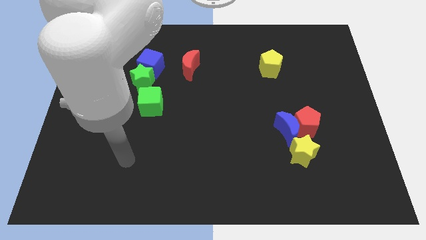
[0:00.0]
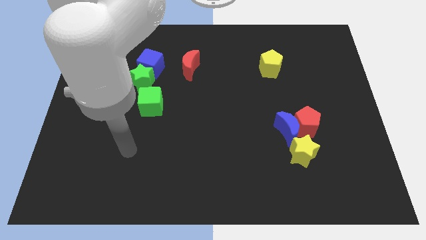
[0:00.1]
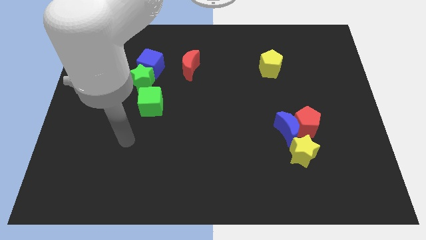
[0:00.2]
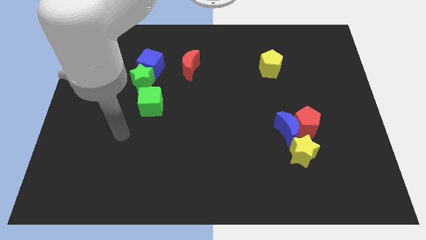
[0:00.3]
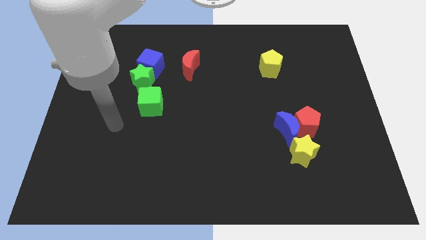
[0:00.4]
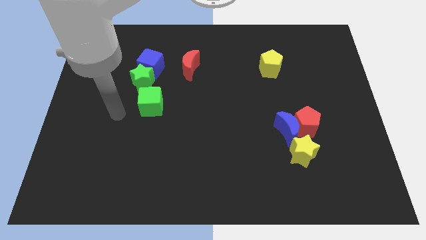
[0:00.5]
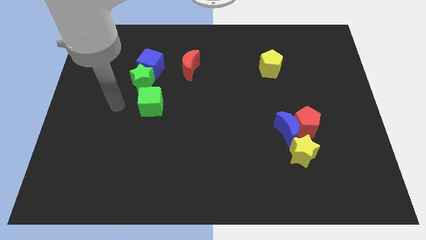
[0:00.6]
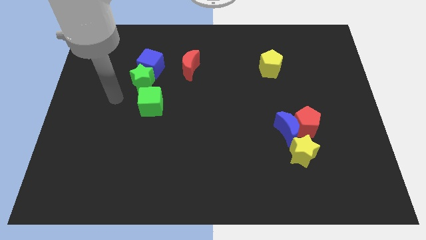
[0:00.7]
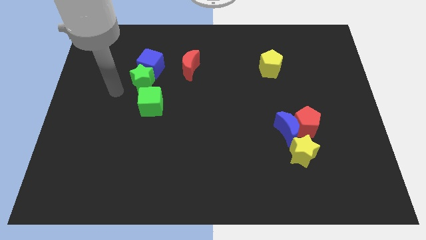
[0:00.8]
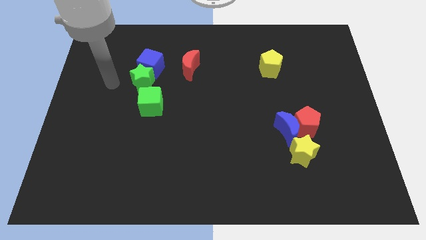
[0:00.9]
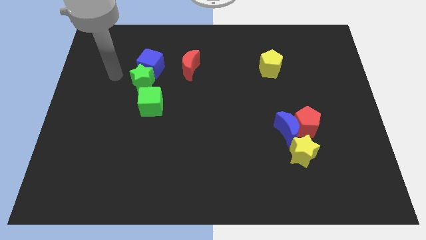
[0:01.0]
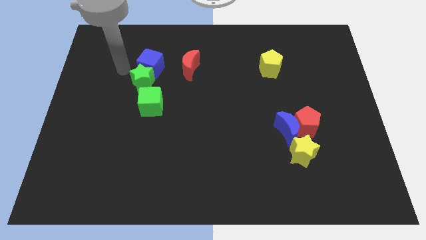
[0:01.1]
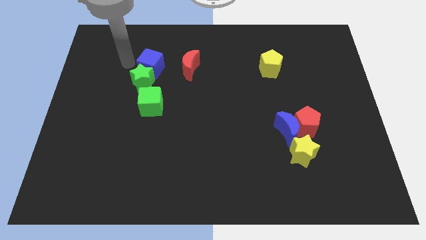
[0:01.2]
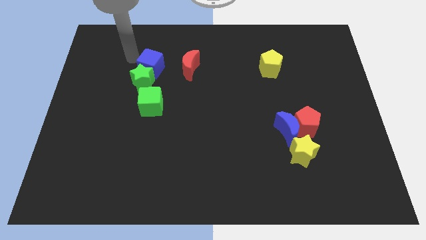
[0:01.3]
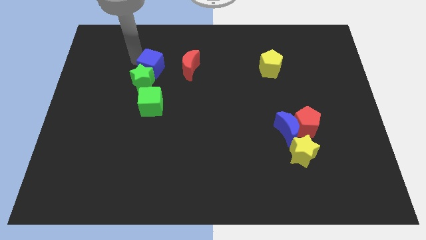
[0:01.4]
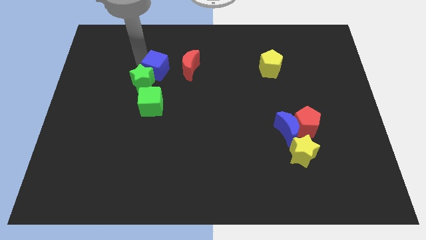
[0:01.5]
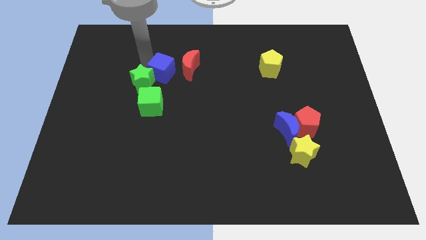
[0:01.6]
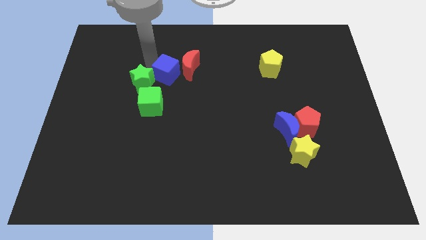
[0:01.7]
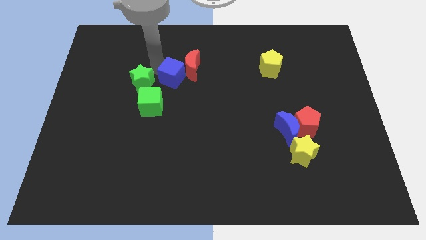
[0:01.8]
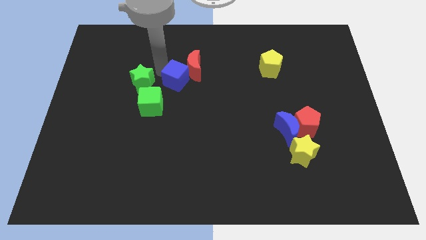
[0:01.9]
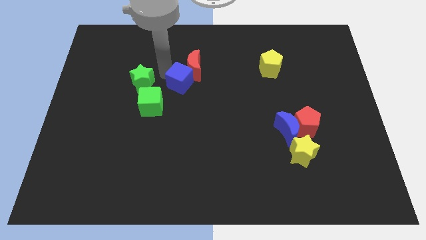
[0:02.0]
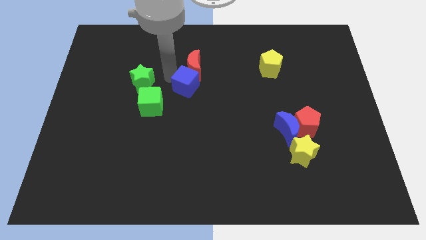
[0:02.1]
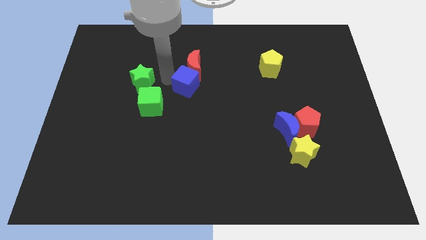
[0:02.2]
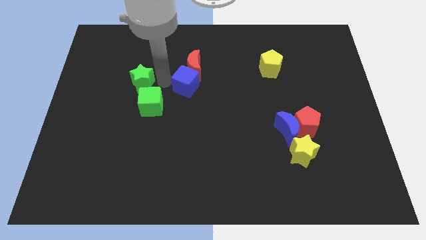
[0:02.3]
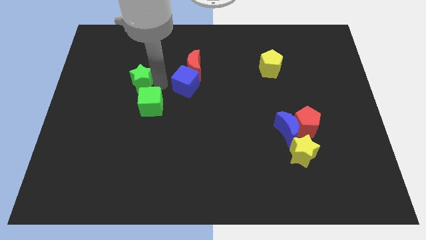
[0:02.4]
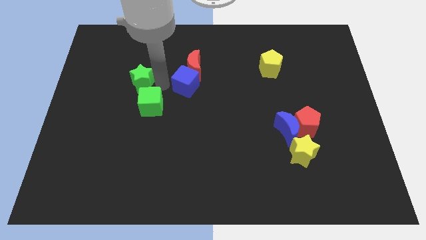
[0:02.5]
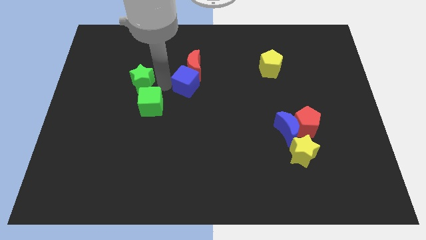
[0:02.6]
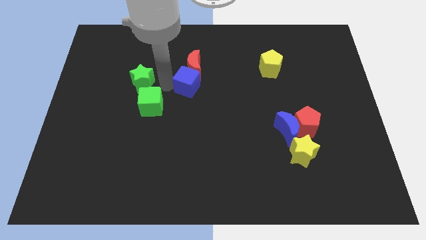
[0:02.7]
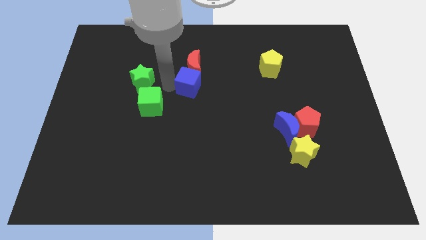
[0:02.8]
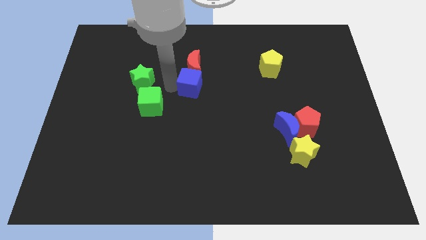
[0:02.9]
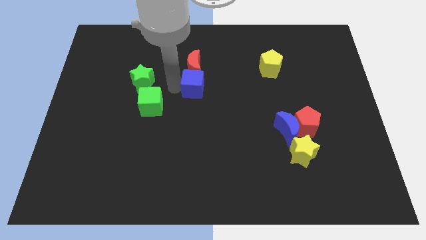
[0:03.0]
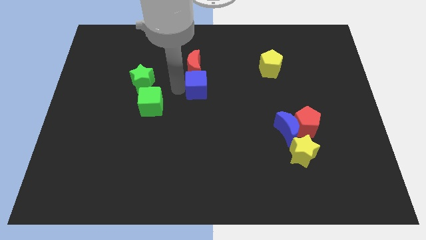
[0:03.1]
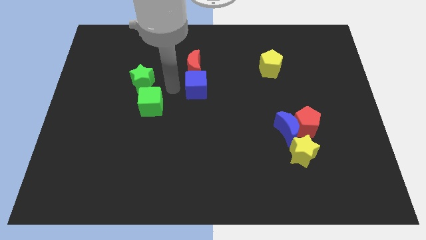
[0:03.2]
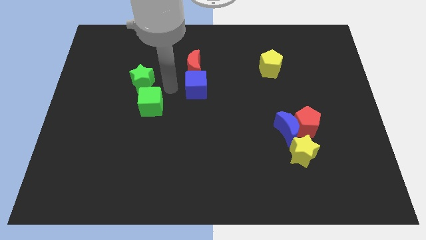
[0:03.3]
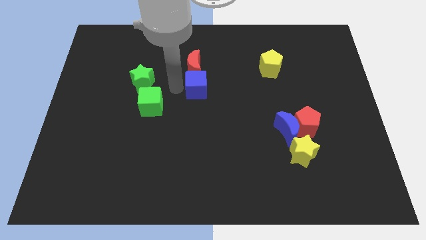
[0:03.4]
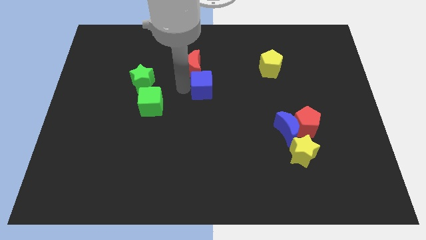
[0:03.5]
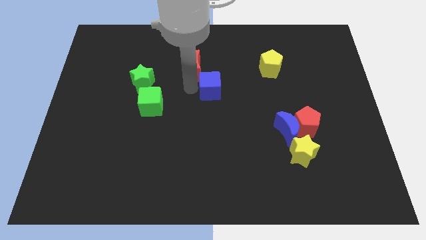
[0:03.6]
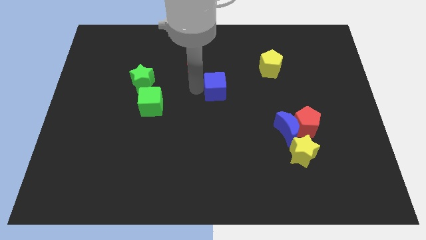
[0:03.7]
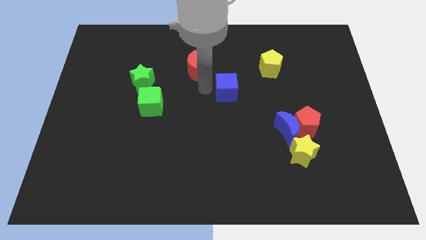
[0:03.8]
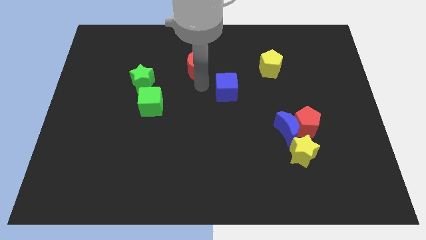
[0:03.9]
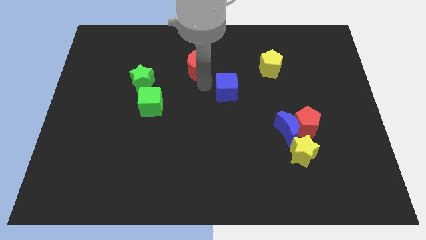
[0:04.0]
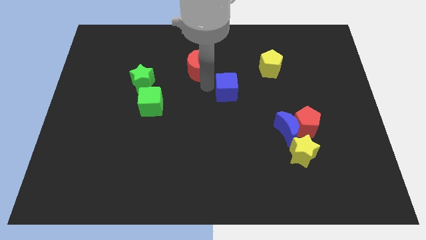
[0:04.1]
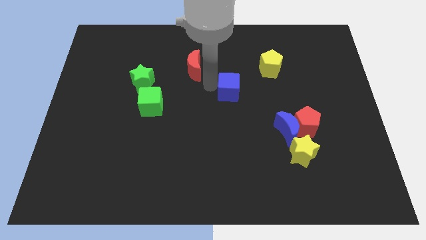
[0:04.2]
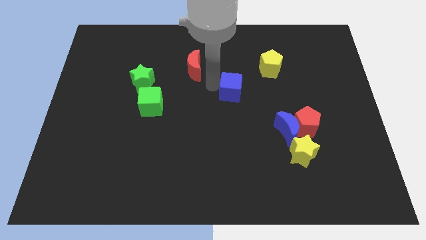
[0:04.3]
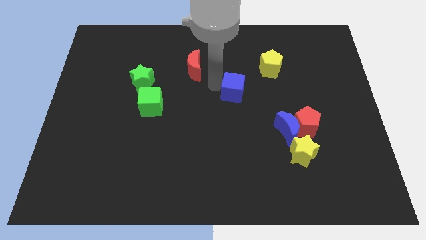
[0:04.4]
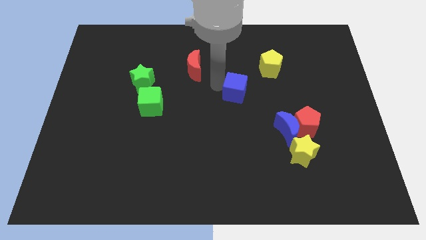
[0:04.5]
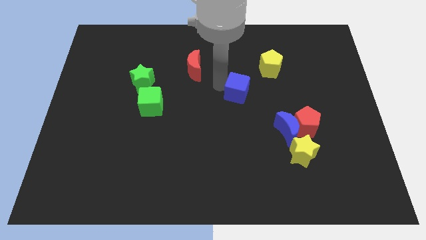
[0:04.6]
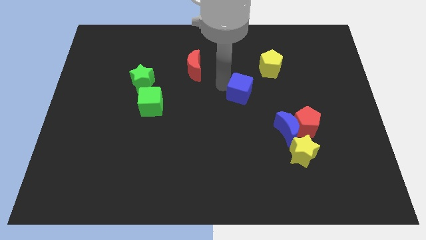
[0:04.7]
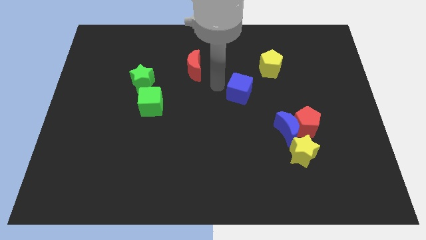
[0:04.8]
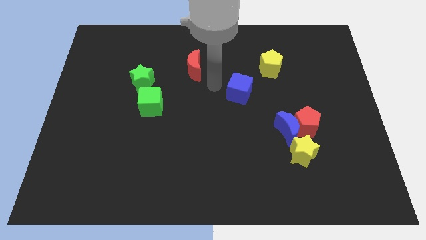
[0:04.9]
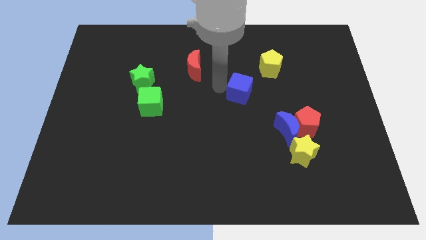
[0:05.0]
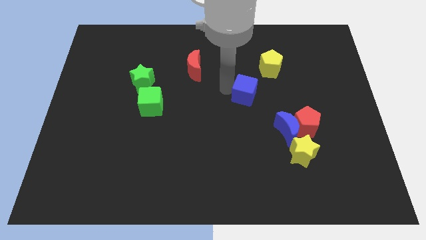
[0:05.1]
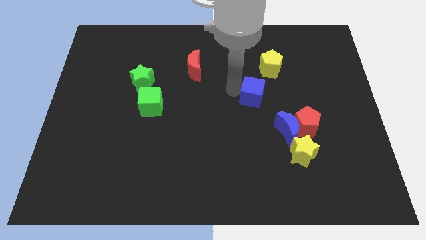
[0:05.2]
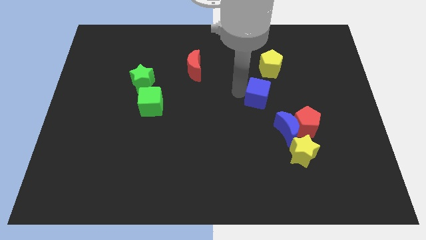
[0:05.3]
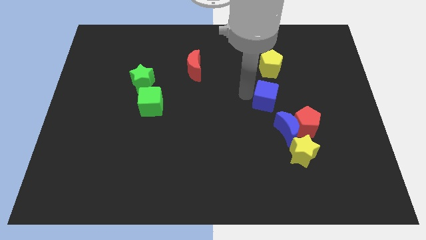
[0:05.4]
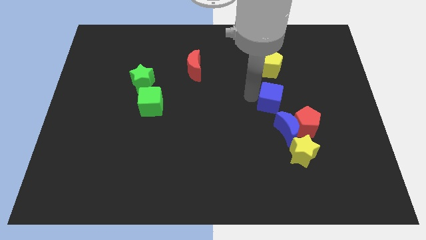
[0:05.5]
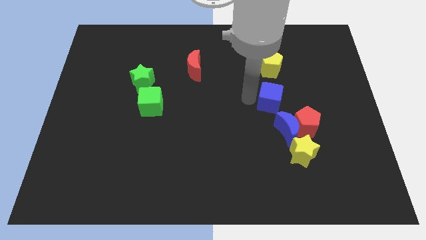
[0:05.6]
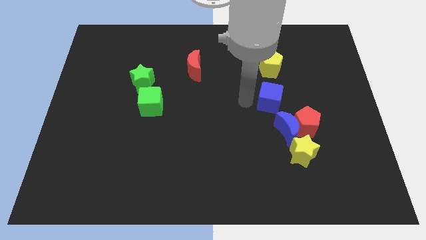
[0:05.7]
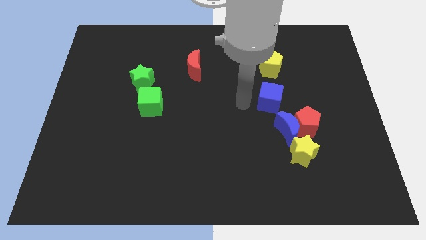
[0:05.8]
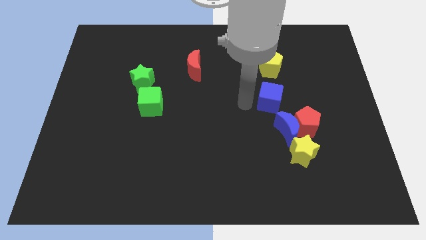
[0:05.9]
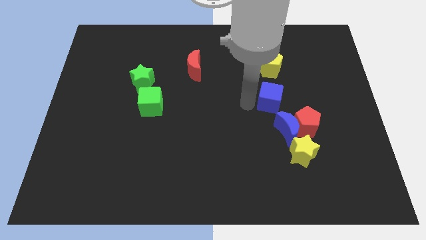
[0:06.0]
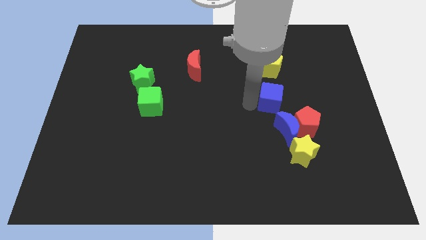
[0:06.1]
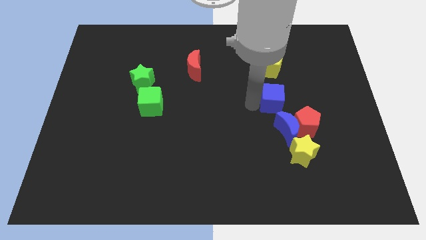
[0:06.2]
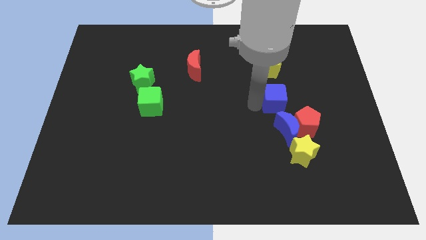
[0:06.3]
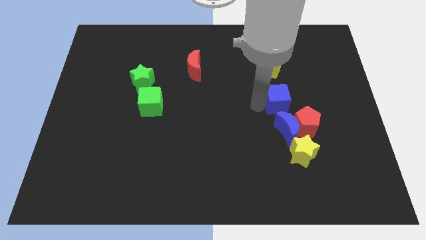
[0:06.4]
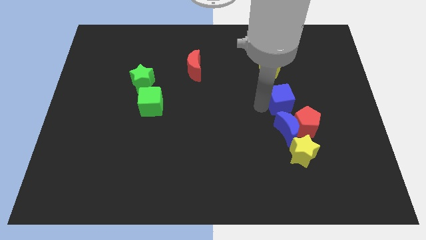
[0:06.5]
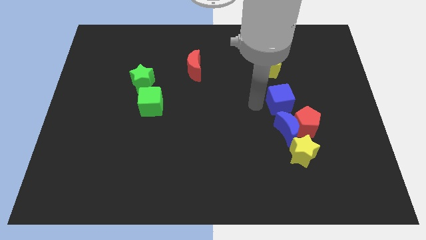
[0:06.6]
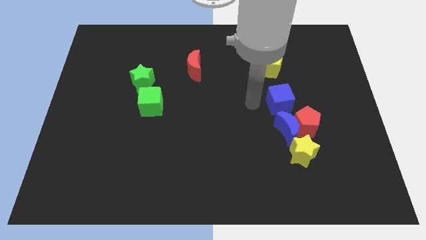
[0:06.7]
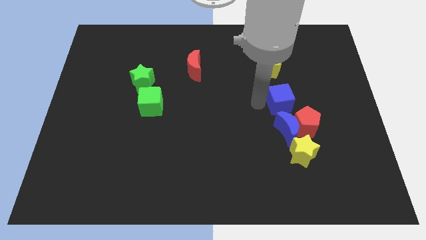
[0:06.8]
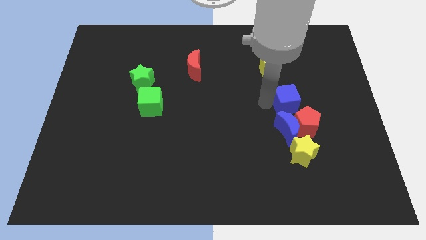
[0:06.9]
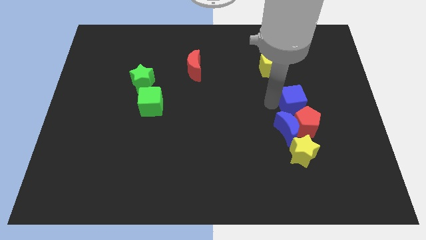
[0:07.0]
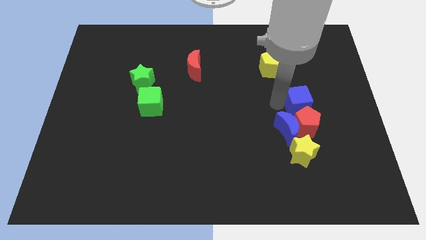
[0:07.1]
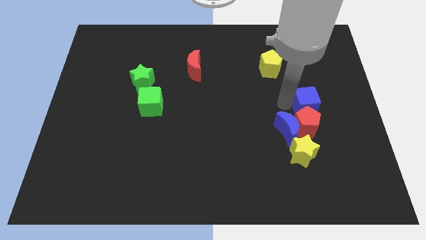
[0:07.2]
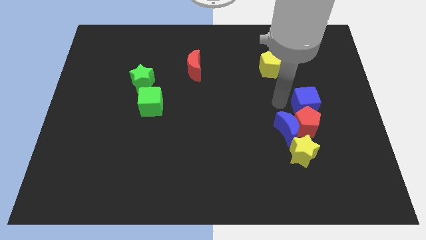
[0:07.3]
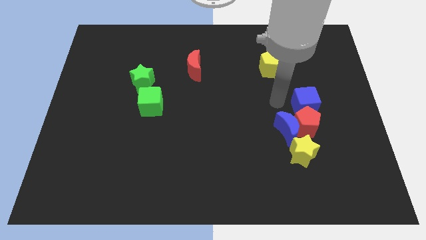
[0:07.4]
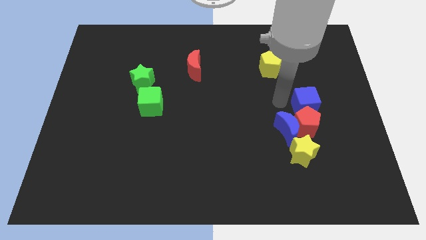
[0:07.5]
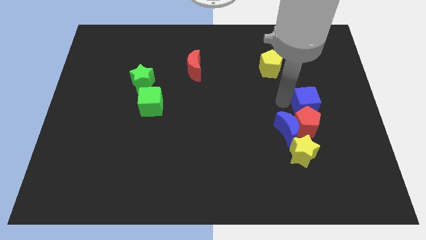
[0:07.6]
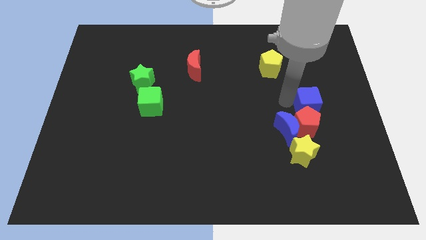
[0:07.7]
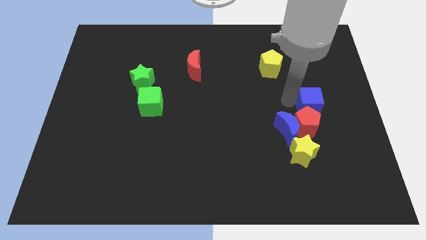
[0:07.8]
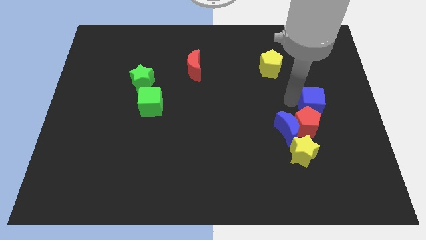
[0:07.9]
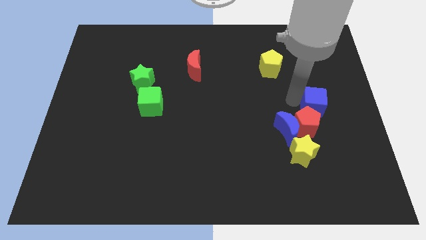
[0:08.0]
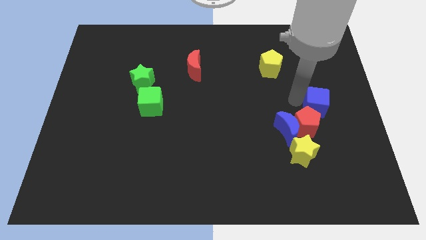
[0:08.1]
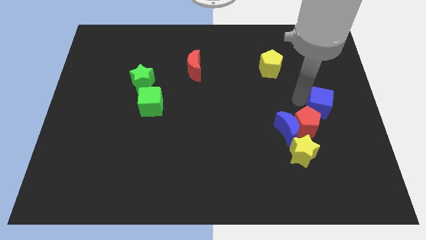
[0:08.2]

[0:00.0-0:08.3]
put the blue cube to the right side
